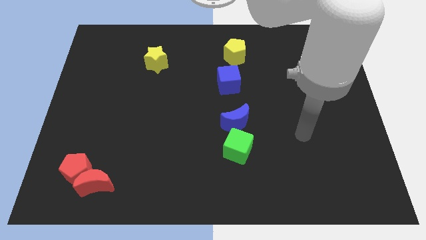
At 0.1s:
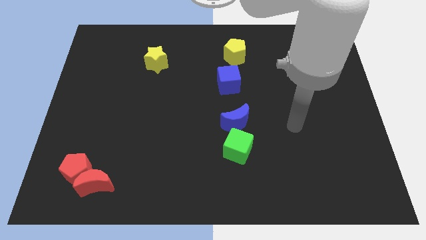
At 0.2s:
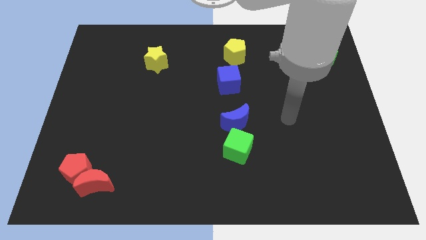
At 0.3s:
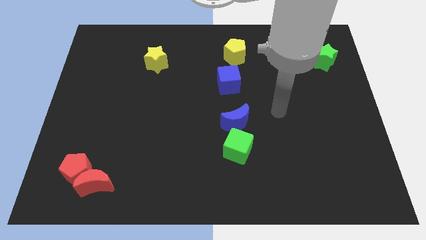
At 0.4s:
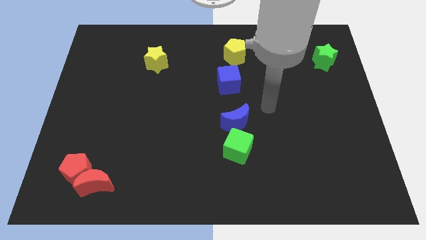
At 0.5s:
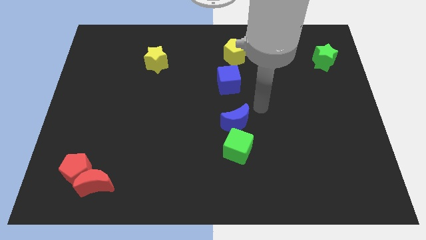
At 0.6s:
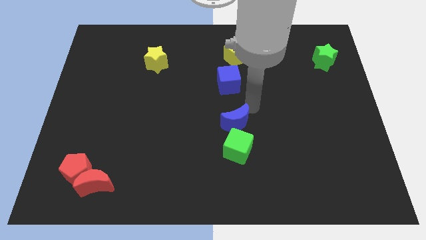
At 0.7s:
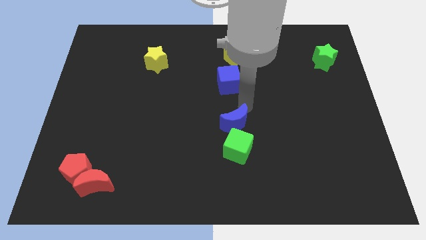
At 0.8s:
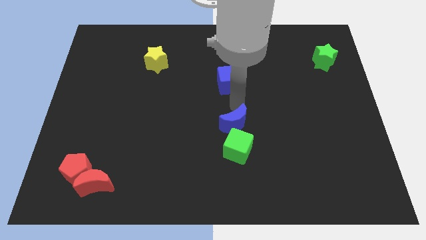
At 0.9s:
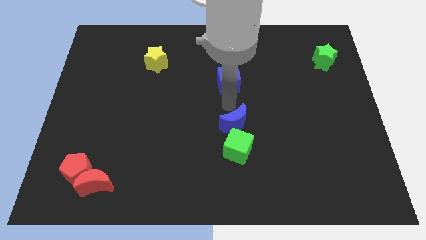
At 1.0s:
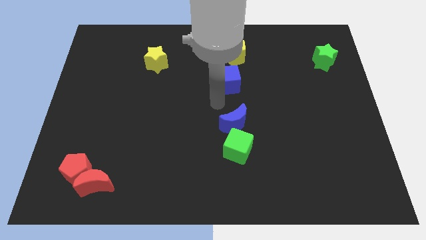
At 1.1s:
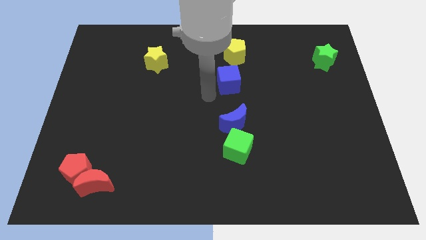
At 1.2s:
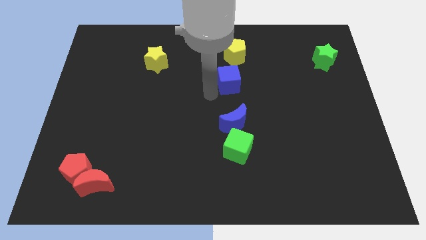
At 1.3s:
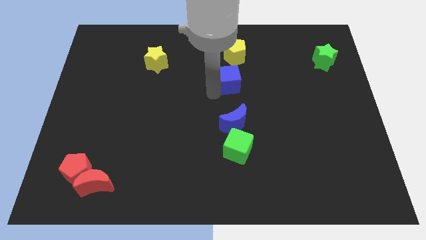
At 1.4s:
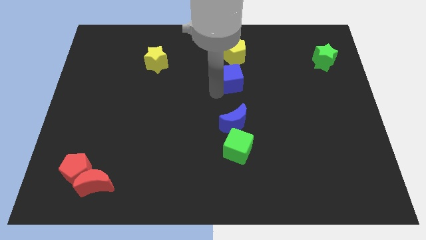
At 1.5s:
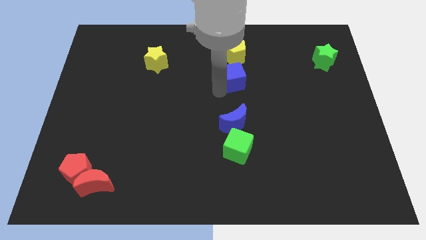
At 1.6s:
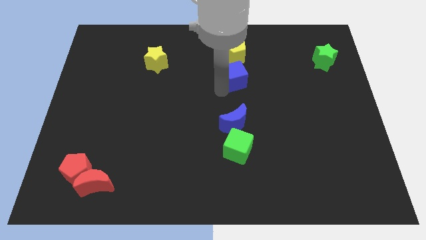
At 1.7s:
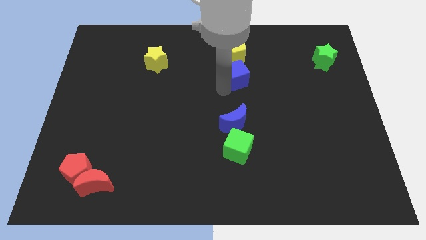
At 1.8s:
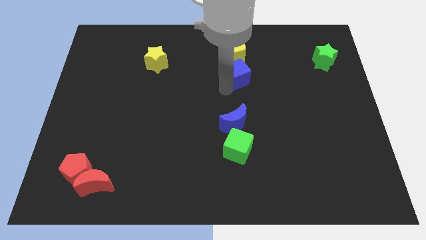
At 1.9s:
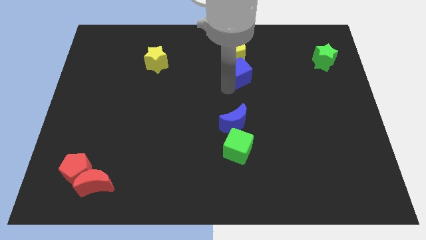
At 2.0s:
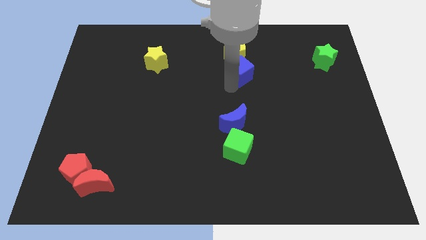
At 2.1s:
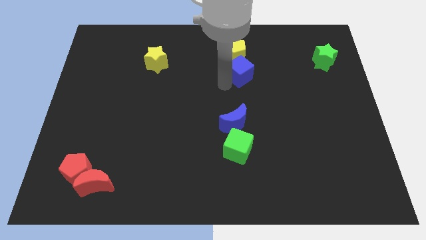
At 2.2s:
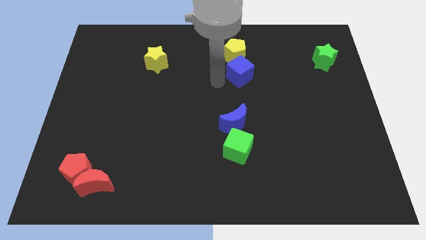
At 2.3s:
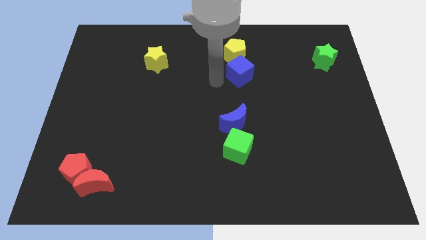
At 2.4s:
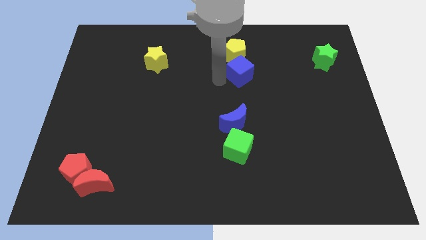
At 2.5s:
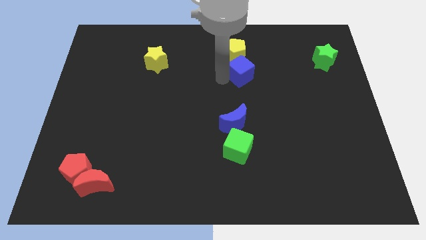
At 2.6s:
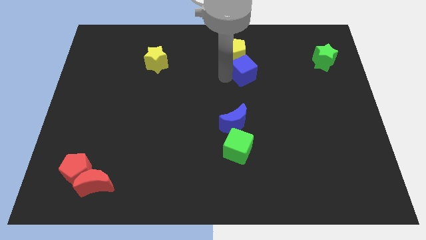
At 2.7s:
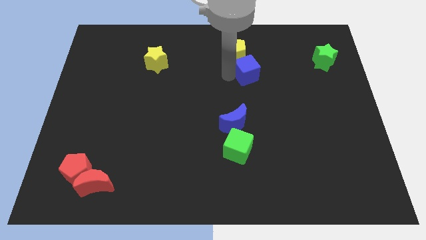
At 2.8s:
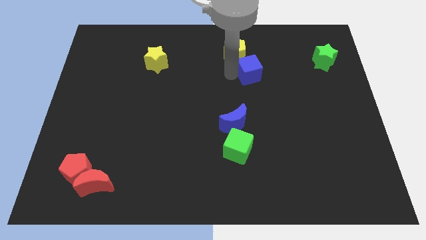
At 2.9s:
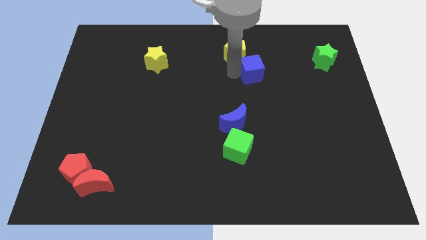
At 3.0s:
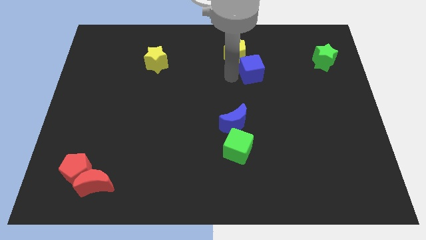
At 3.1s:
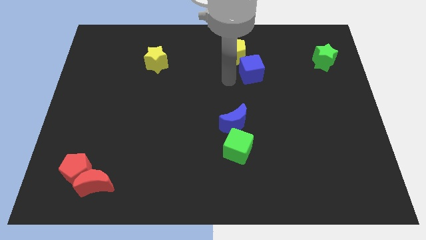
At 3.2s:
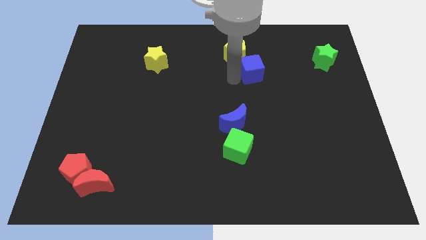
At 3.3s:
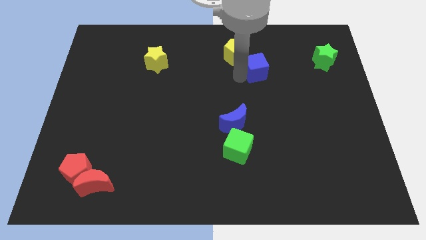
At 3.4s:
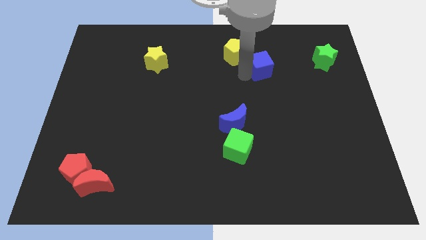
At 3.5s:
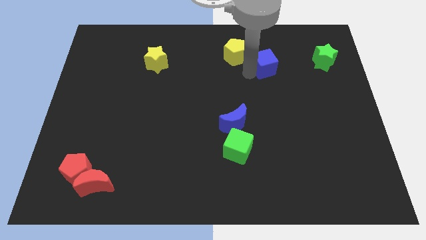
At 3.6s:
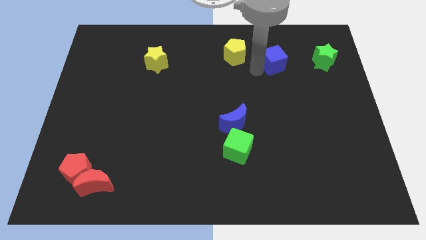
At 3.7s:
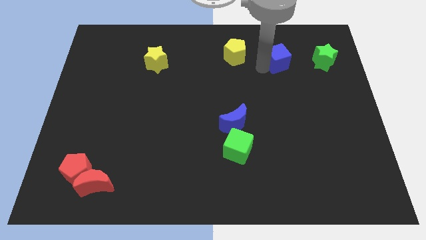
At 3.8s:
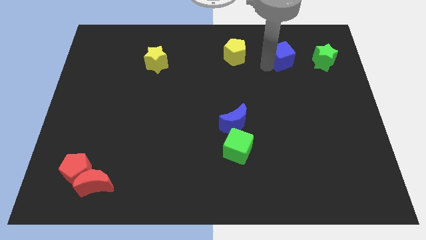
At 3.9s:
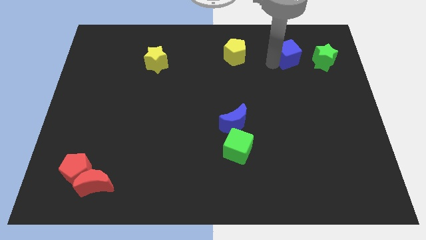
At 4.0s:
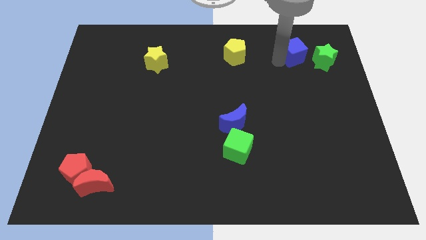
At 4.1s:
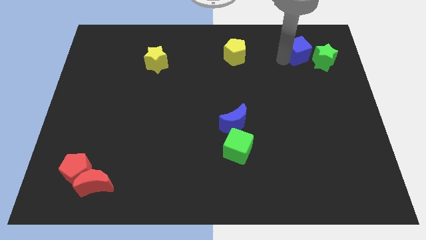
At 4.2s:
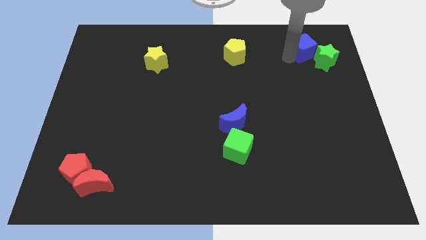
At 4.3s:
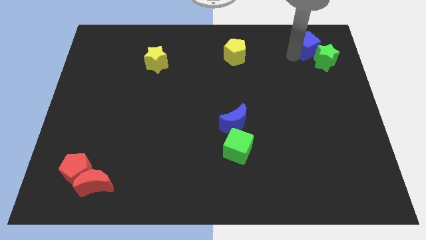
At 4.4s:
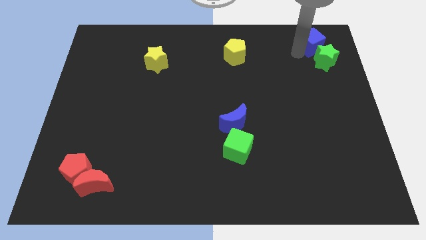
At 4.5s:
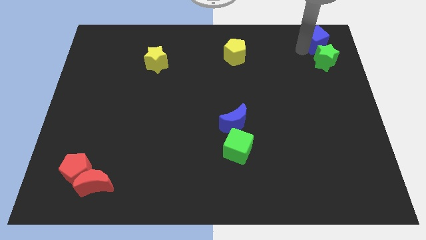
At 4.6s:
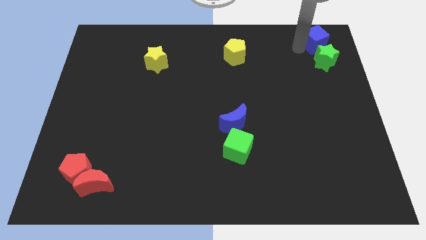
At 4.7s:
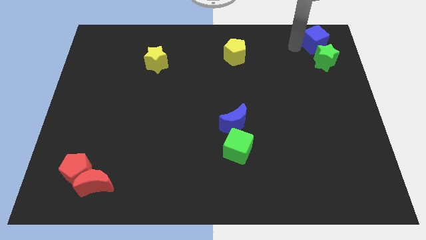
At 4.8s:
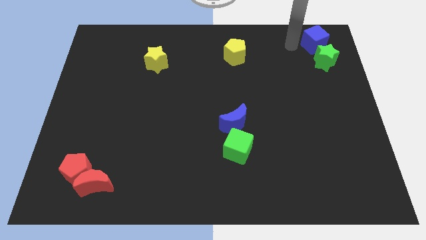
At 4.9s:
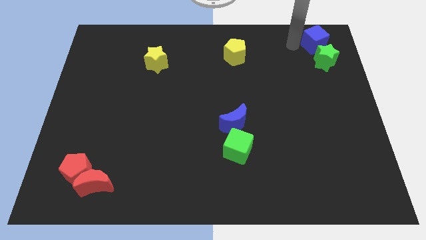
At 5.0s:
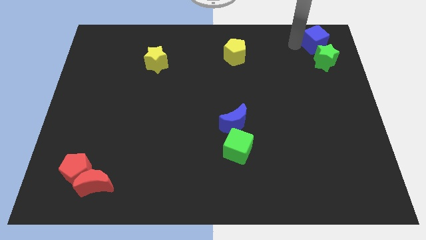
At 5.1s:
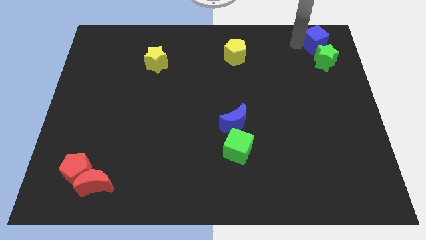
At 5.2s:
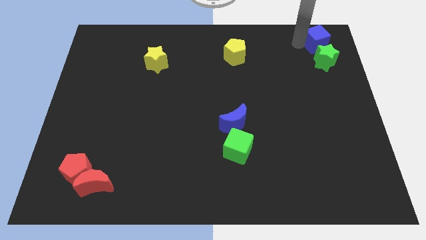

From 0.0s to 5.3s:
slide the blue cube to the upper right corner

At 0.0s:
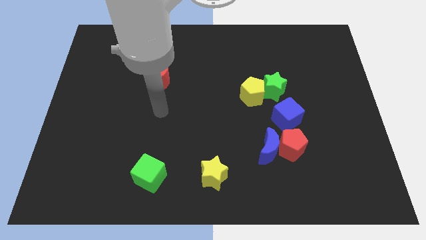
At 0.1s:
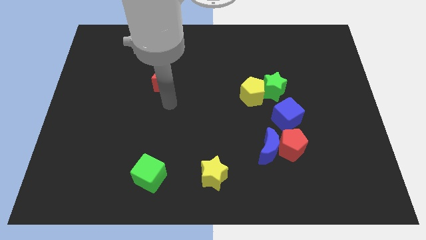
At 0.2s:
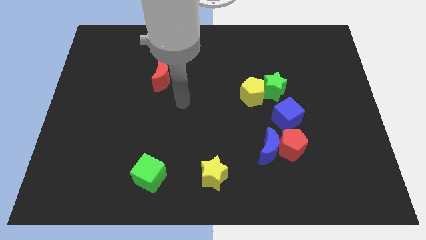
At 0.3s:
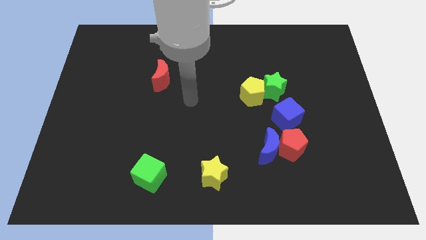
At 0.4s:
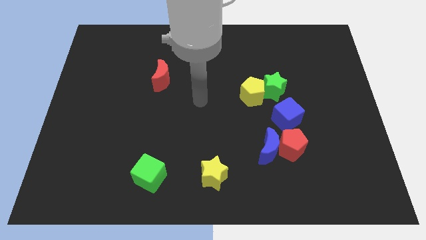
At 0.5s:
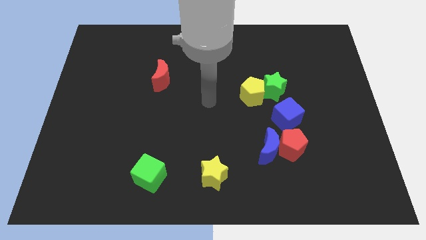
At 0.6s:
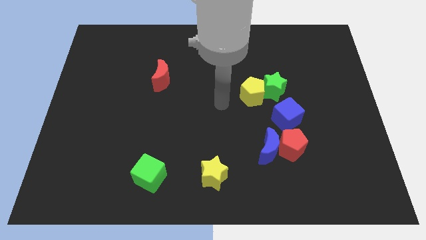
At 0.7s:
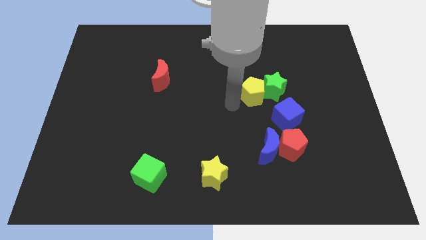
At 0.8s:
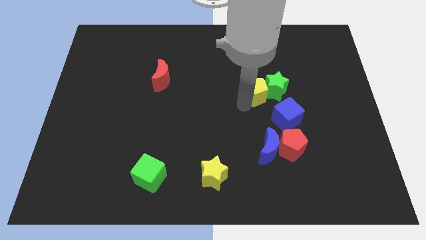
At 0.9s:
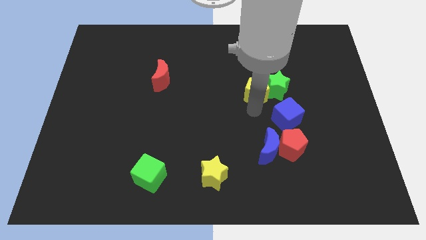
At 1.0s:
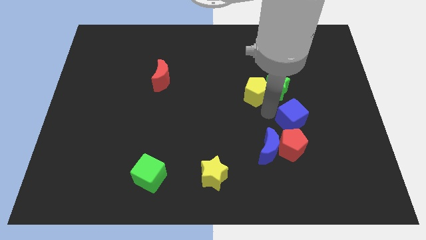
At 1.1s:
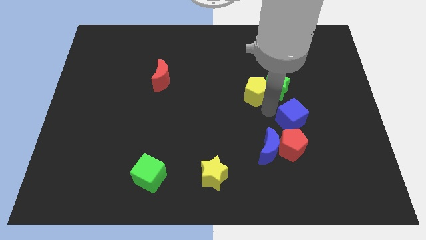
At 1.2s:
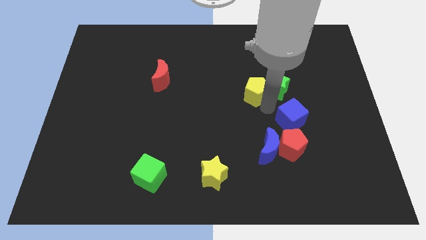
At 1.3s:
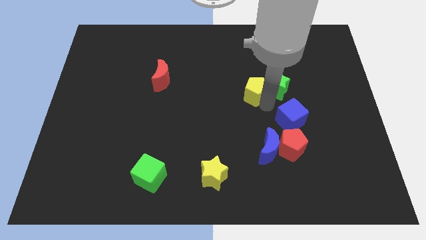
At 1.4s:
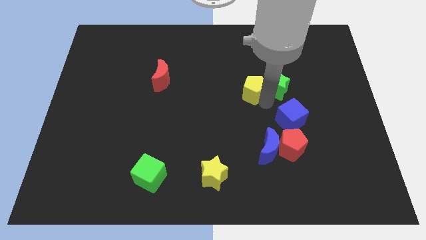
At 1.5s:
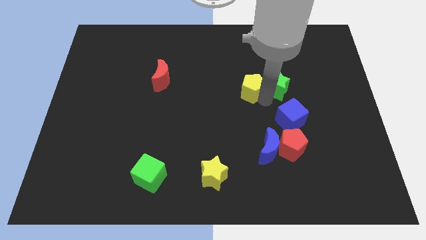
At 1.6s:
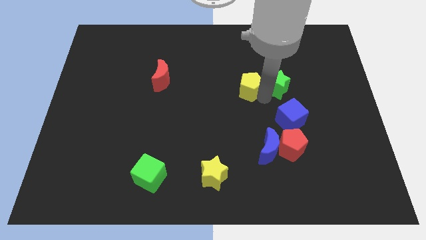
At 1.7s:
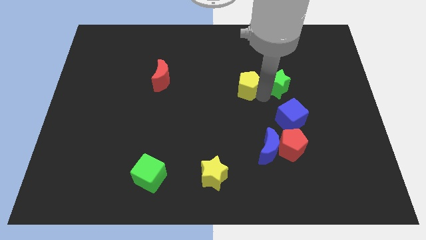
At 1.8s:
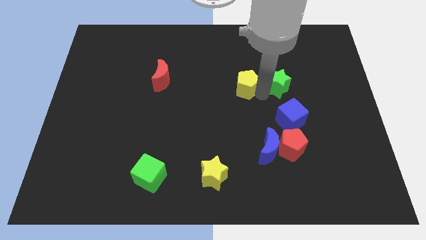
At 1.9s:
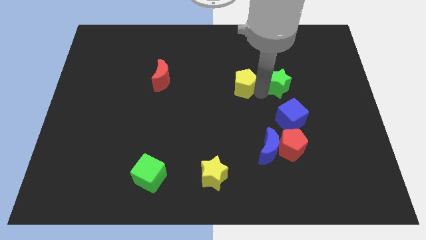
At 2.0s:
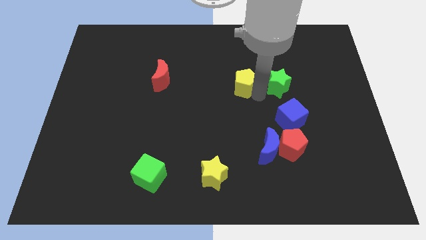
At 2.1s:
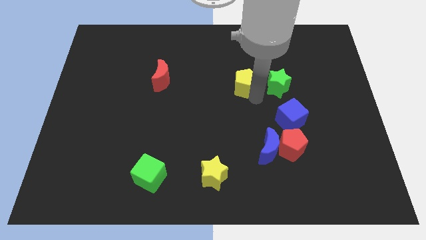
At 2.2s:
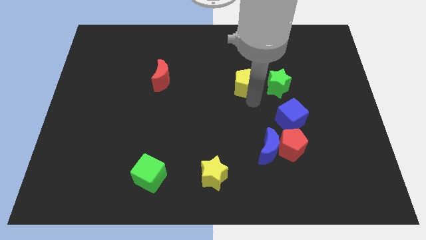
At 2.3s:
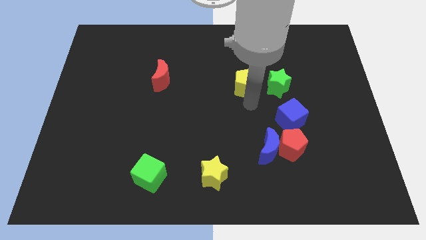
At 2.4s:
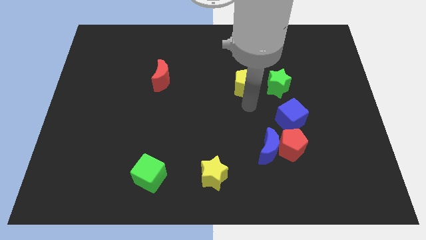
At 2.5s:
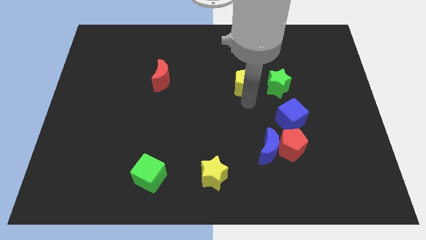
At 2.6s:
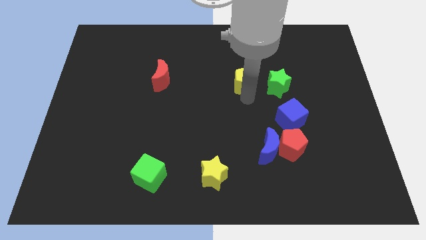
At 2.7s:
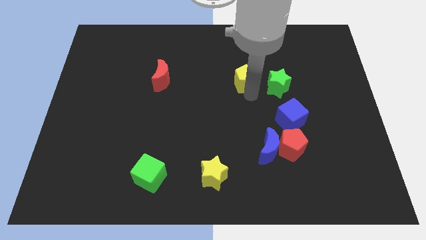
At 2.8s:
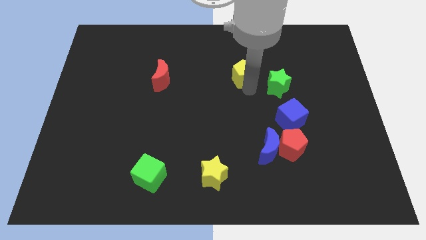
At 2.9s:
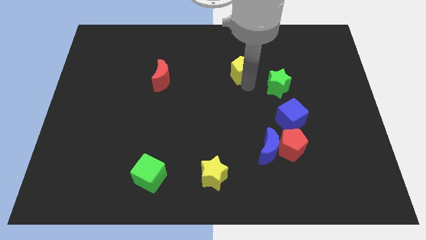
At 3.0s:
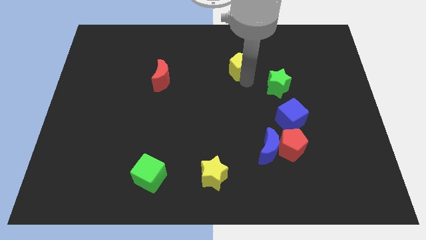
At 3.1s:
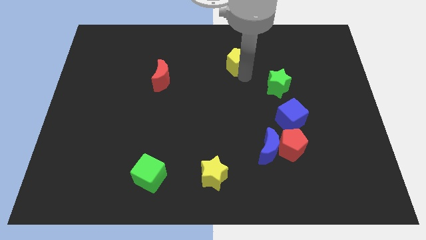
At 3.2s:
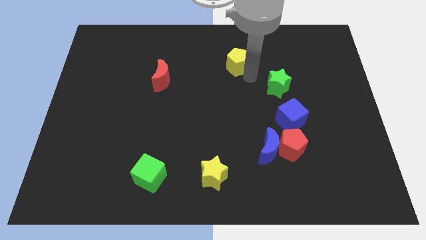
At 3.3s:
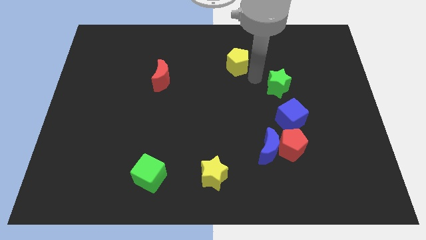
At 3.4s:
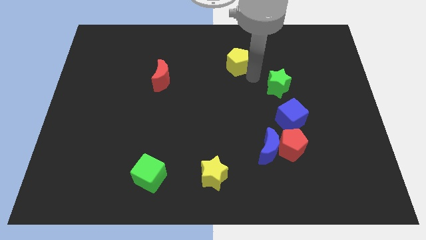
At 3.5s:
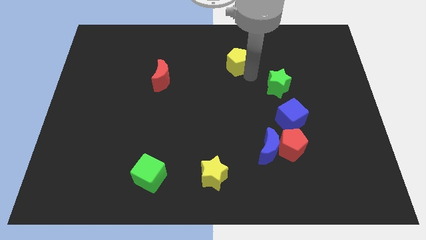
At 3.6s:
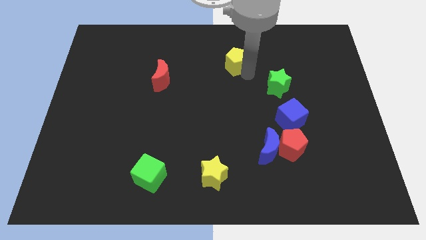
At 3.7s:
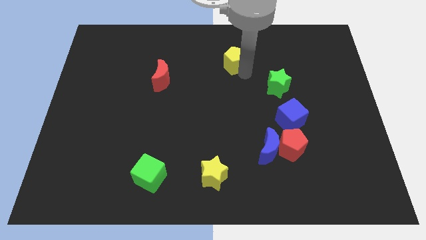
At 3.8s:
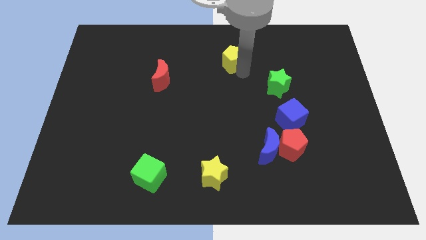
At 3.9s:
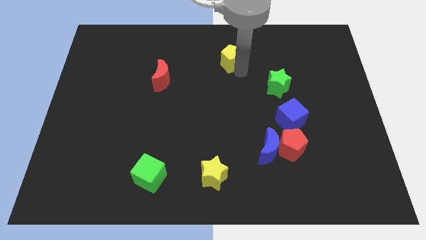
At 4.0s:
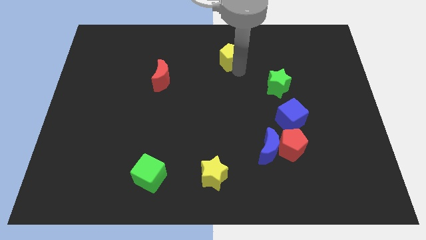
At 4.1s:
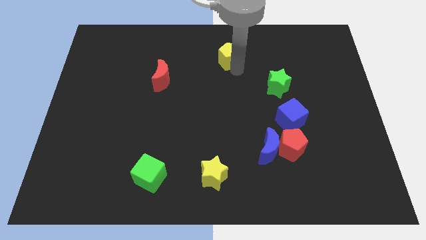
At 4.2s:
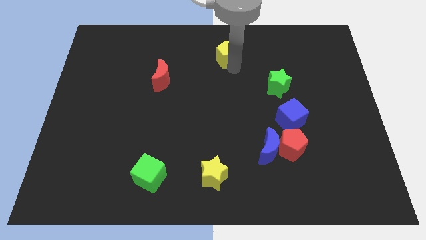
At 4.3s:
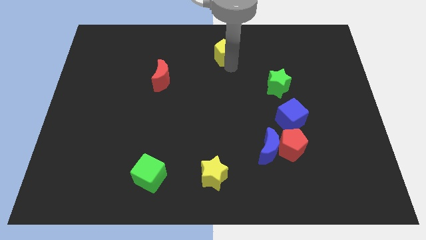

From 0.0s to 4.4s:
put the yellow pentagon to the towards your base
